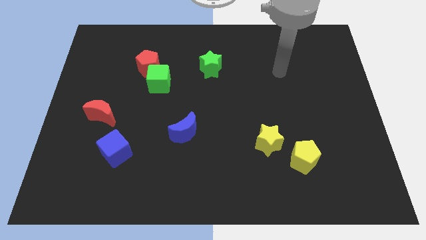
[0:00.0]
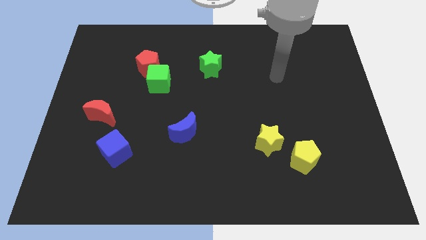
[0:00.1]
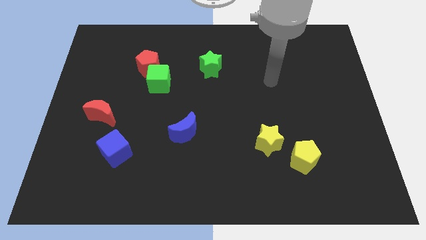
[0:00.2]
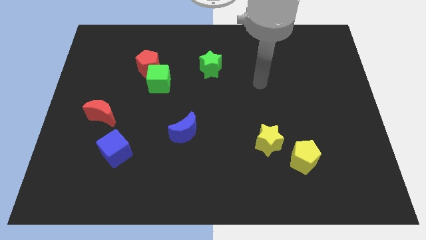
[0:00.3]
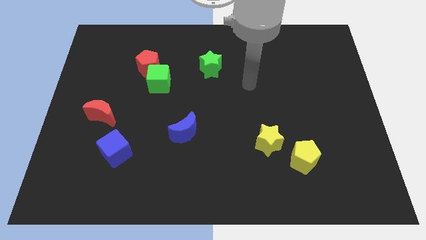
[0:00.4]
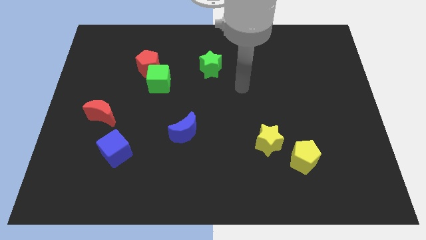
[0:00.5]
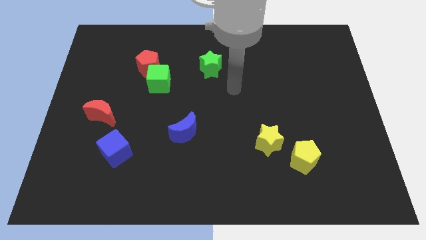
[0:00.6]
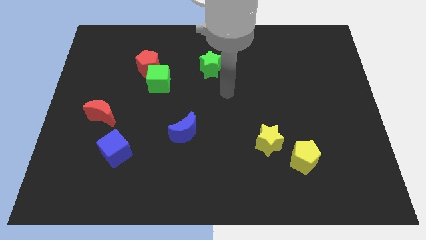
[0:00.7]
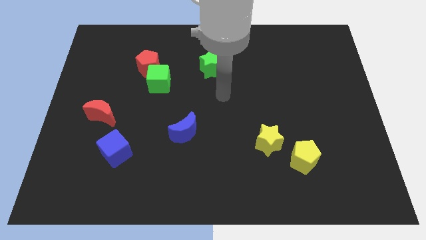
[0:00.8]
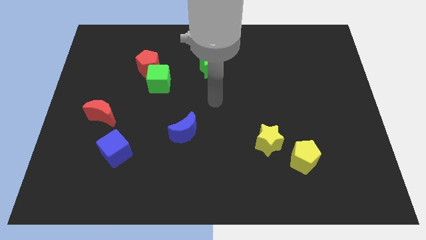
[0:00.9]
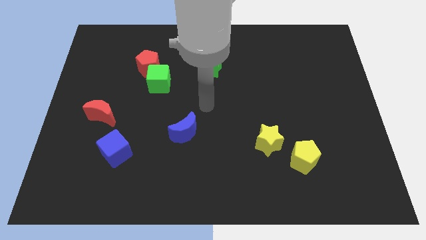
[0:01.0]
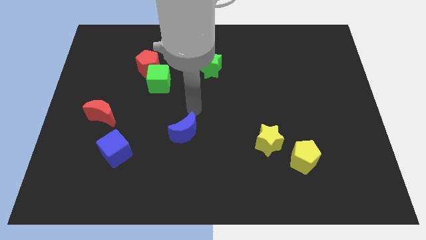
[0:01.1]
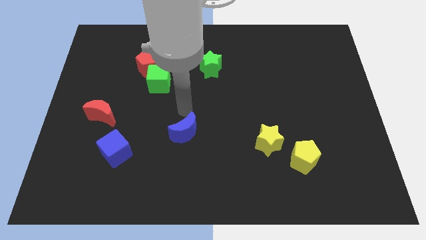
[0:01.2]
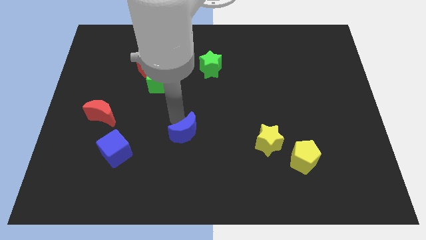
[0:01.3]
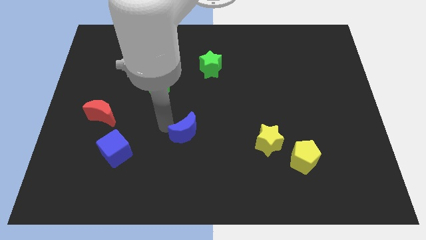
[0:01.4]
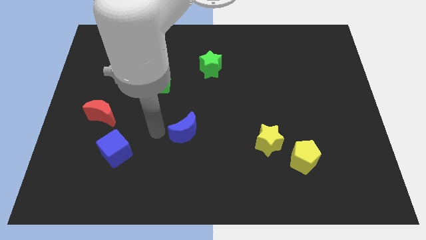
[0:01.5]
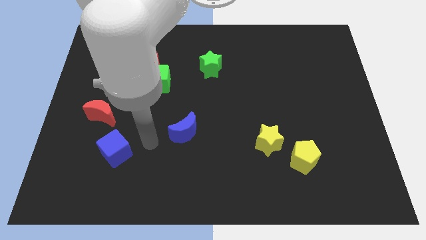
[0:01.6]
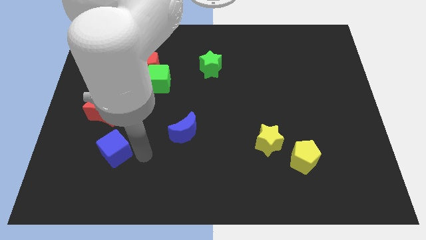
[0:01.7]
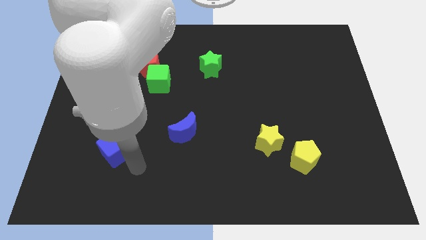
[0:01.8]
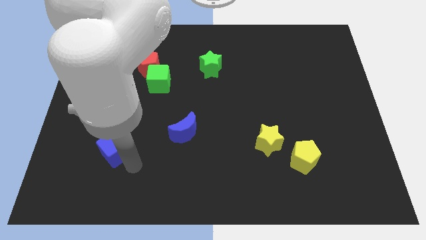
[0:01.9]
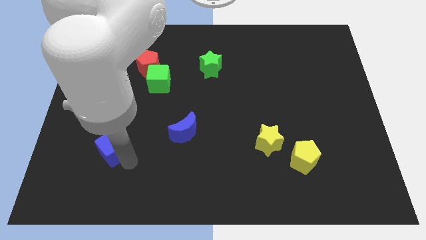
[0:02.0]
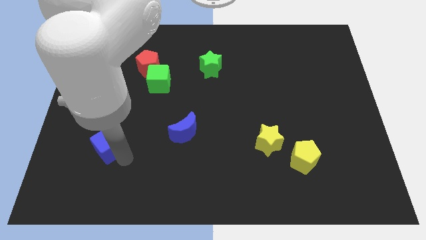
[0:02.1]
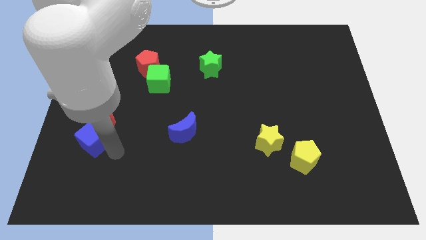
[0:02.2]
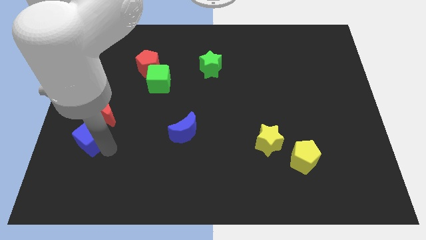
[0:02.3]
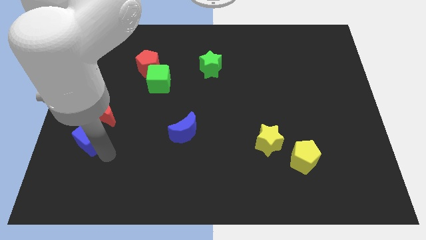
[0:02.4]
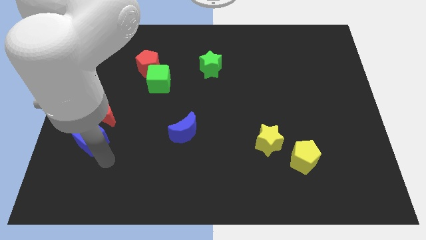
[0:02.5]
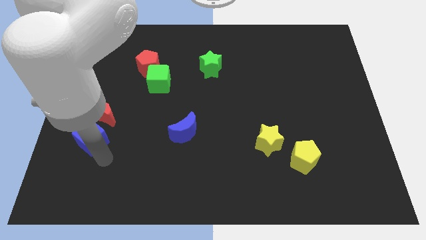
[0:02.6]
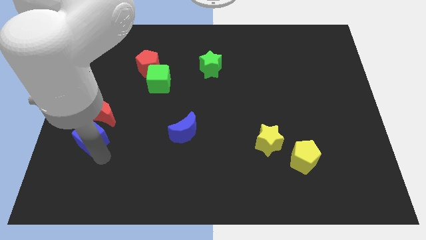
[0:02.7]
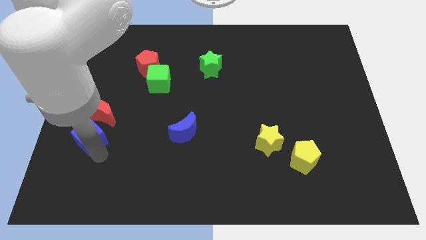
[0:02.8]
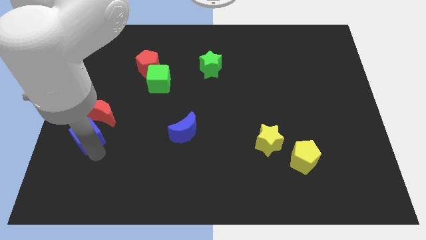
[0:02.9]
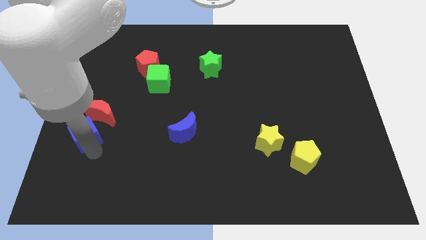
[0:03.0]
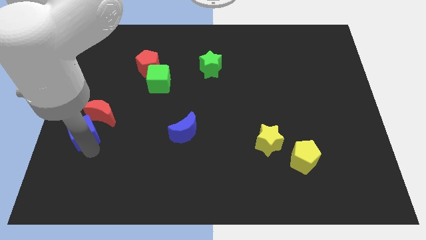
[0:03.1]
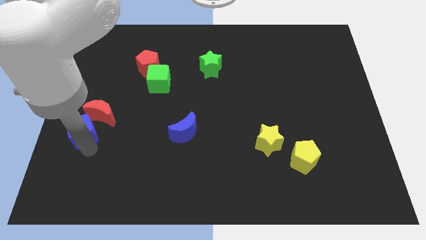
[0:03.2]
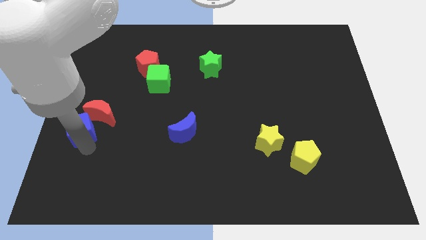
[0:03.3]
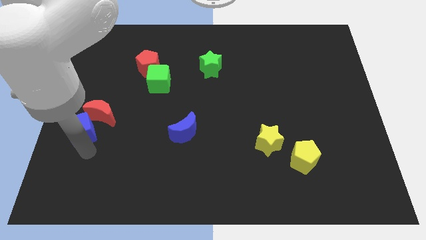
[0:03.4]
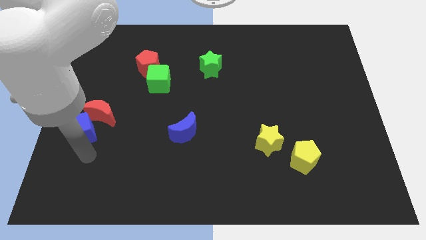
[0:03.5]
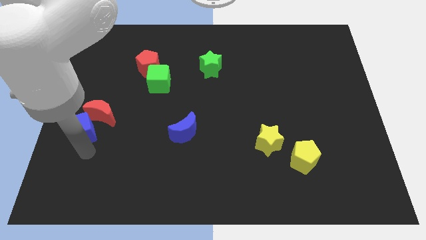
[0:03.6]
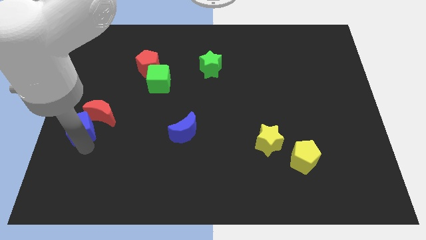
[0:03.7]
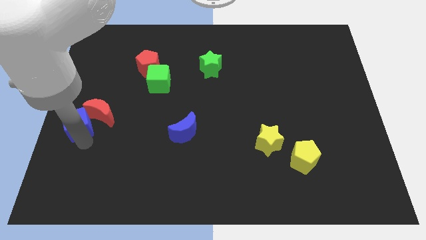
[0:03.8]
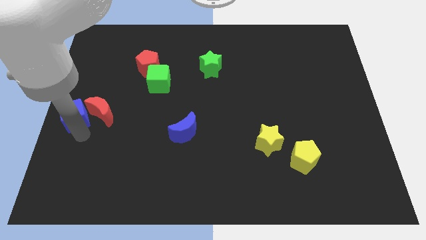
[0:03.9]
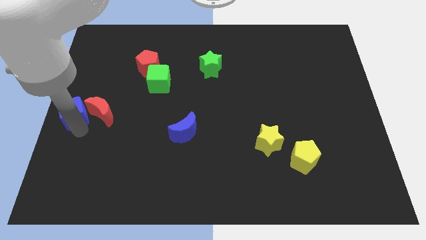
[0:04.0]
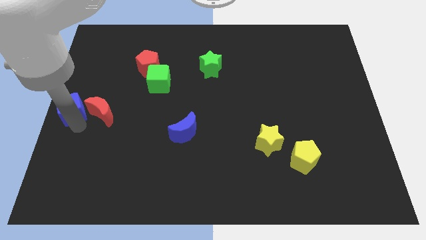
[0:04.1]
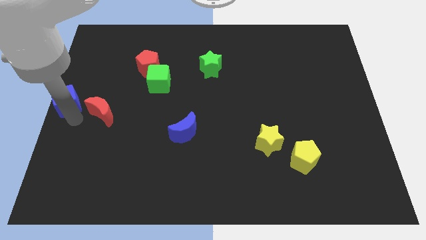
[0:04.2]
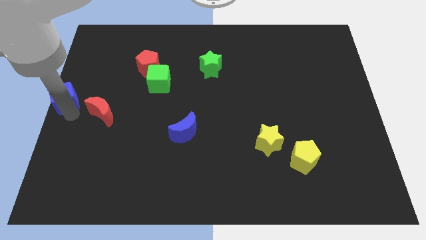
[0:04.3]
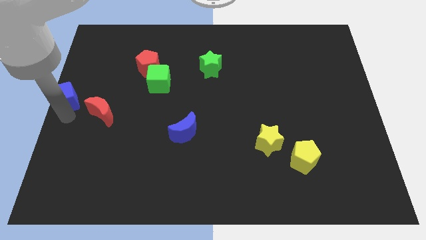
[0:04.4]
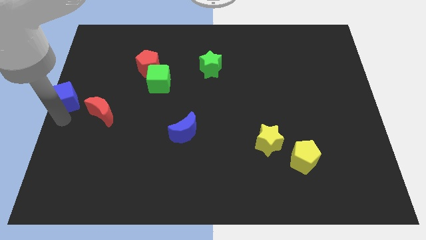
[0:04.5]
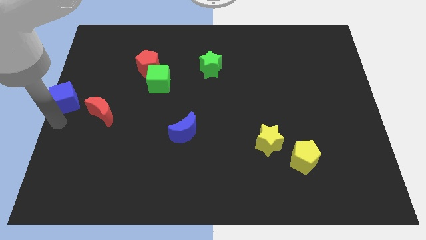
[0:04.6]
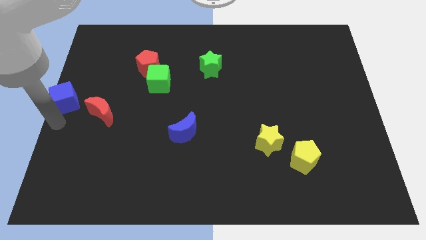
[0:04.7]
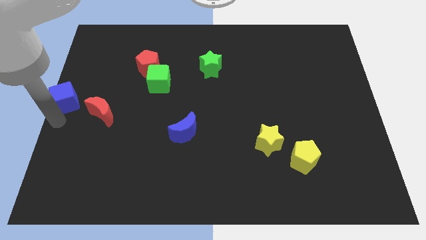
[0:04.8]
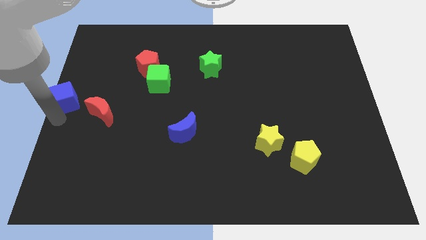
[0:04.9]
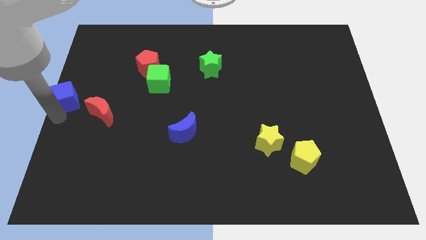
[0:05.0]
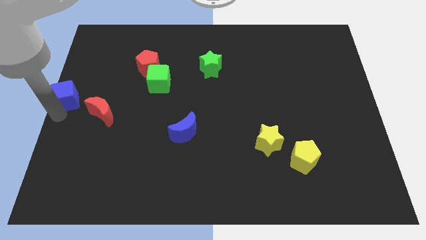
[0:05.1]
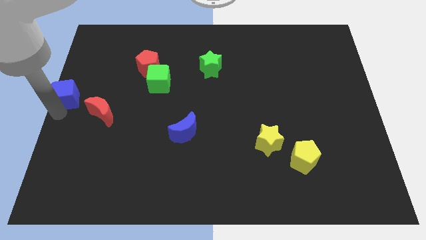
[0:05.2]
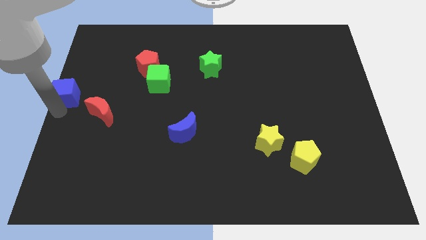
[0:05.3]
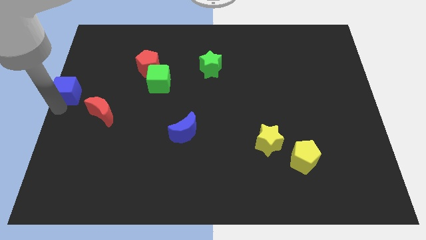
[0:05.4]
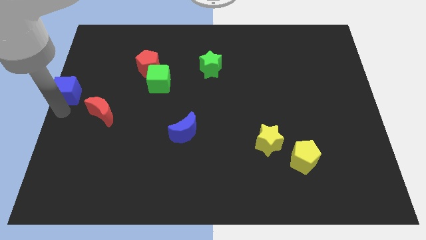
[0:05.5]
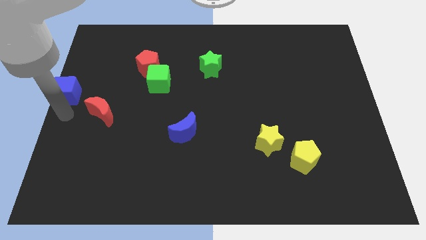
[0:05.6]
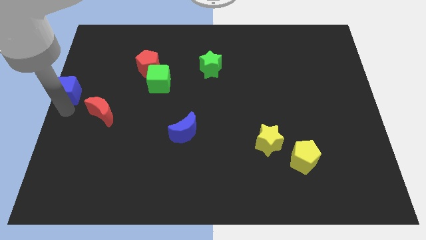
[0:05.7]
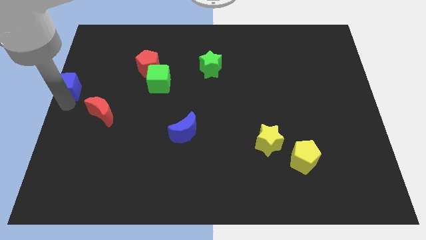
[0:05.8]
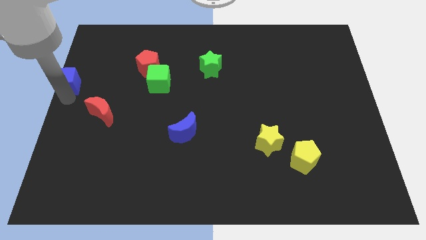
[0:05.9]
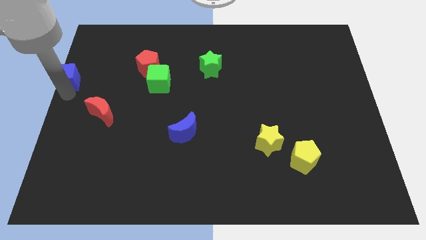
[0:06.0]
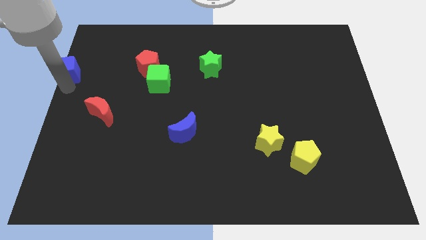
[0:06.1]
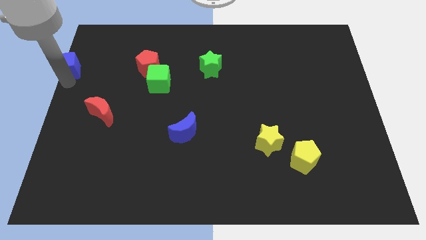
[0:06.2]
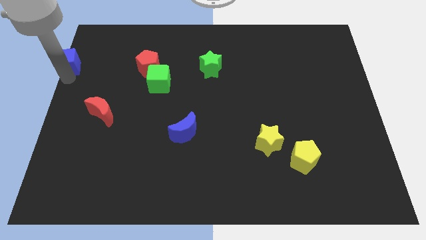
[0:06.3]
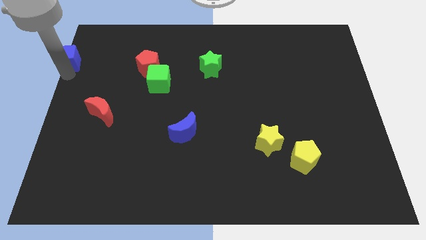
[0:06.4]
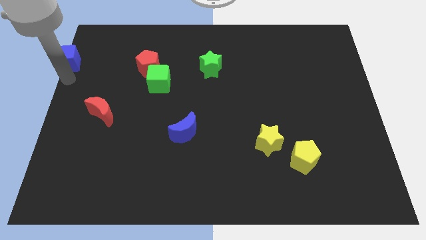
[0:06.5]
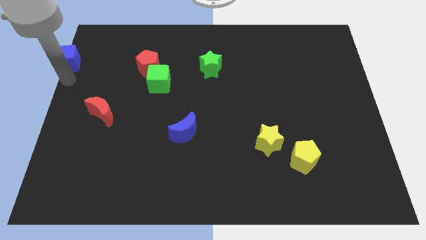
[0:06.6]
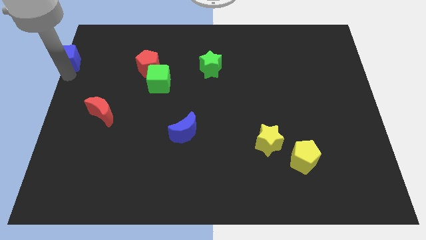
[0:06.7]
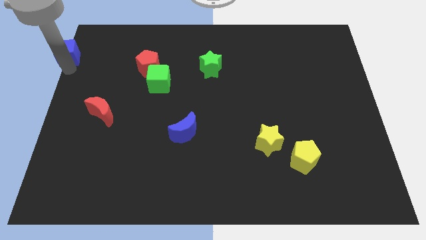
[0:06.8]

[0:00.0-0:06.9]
put the blue cube to the top left
